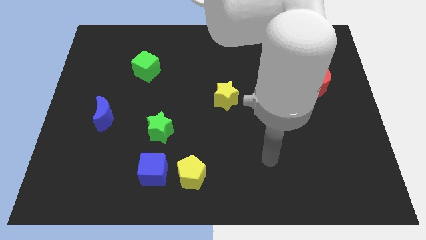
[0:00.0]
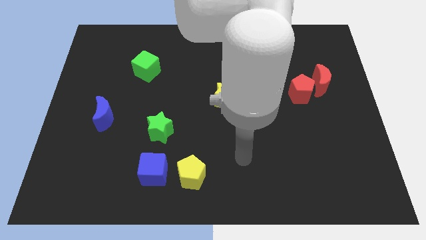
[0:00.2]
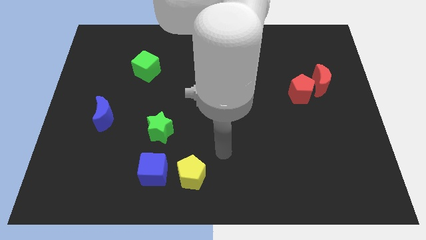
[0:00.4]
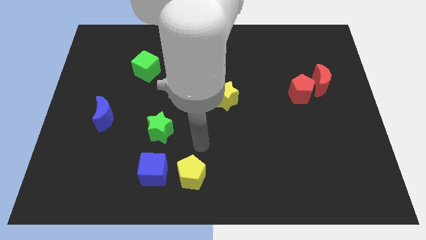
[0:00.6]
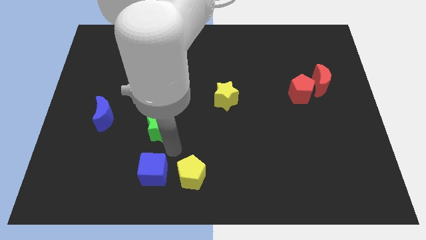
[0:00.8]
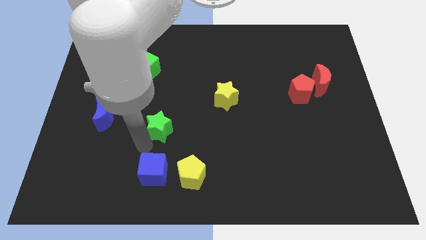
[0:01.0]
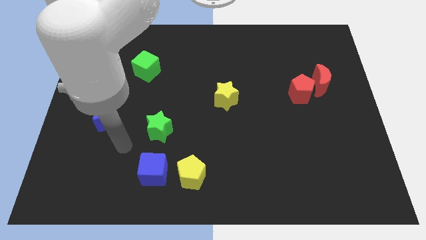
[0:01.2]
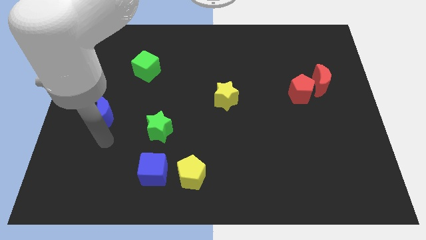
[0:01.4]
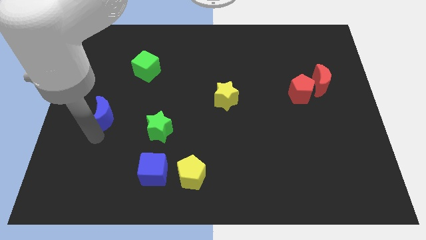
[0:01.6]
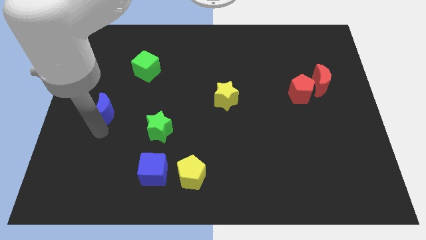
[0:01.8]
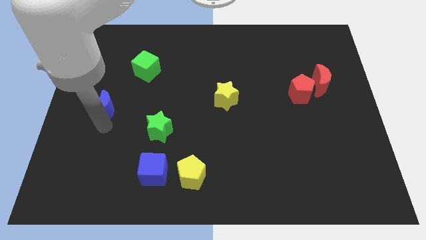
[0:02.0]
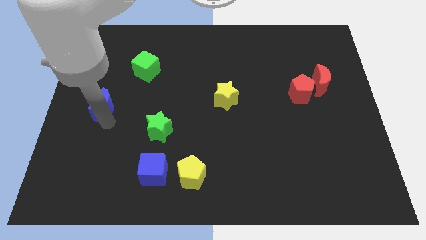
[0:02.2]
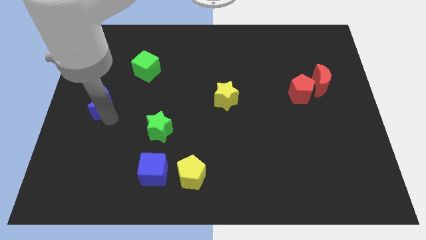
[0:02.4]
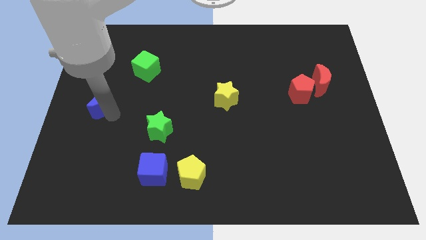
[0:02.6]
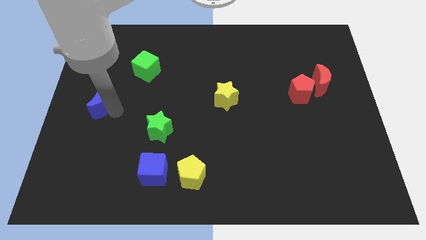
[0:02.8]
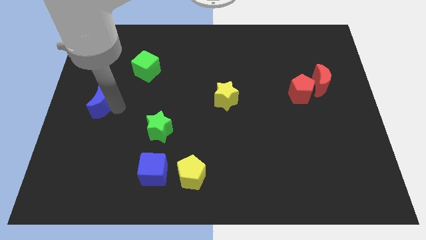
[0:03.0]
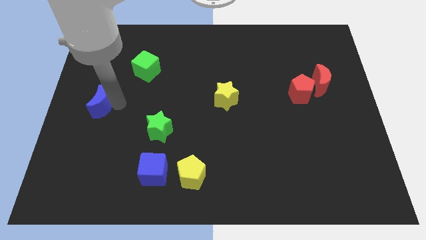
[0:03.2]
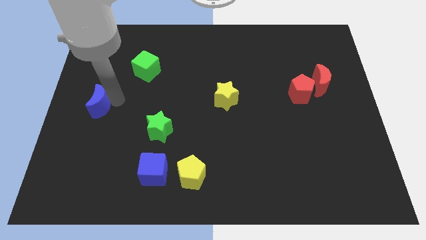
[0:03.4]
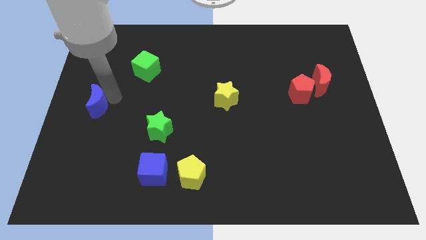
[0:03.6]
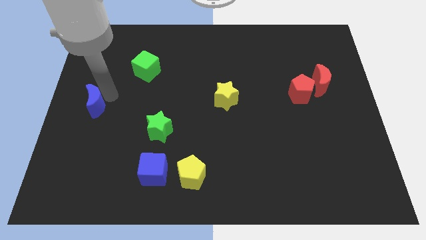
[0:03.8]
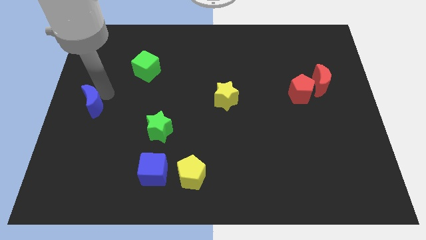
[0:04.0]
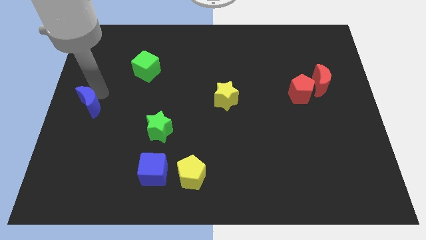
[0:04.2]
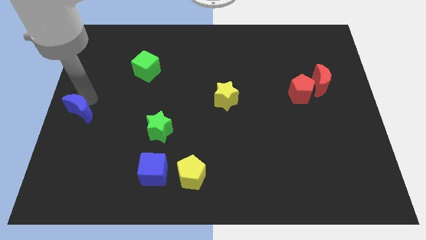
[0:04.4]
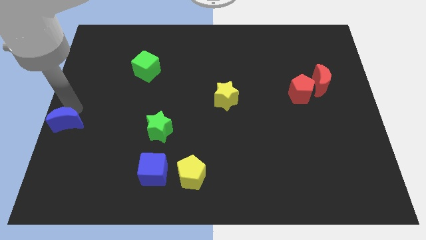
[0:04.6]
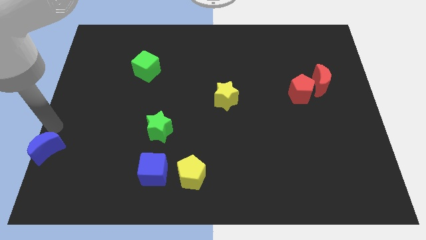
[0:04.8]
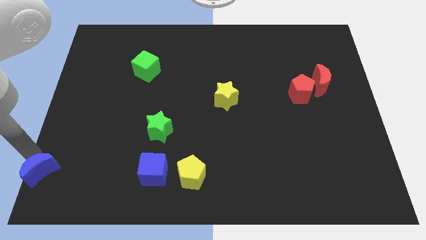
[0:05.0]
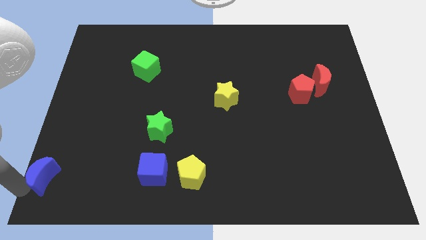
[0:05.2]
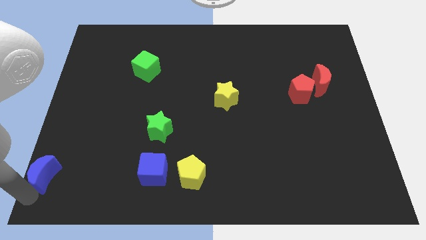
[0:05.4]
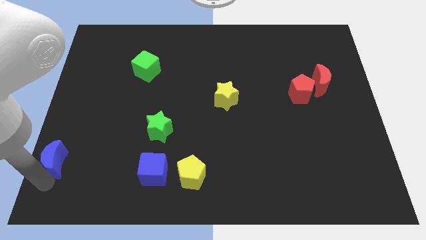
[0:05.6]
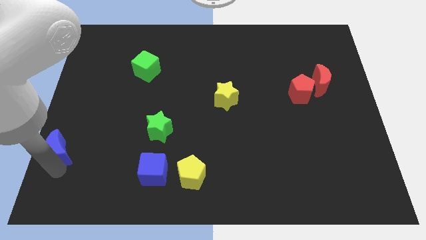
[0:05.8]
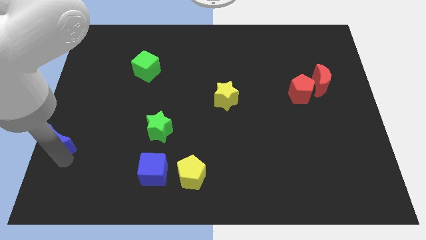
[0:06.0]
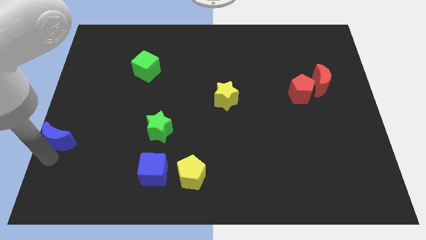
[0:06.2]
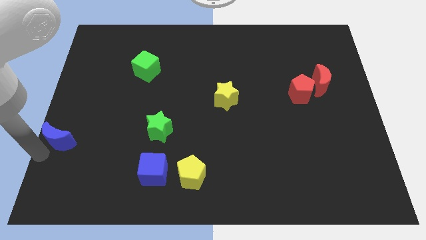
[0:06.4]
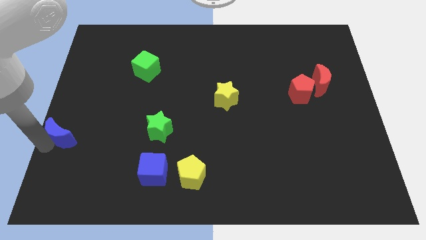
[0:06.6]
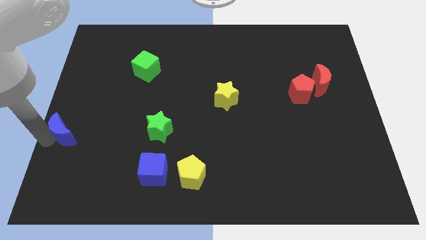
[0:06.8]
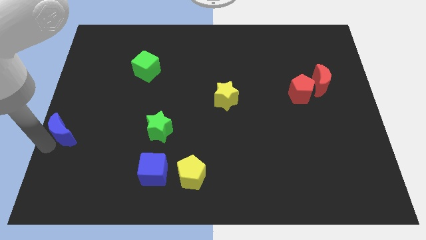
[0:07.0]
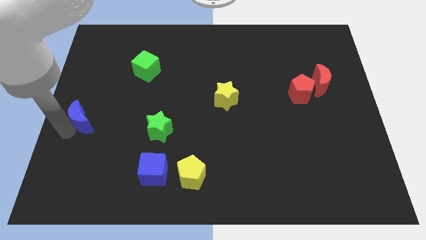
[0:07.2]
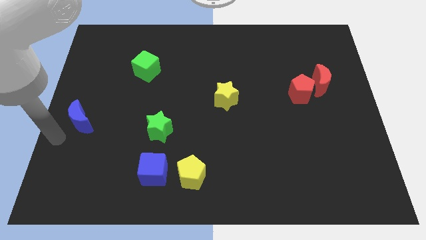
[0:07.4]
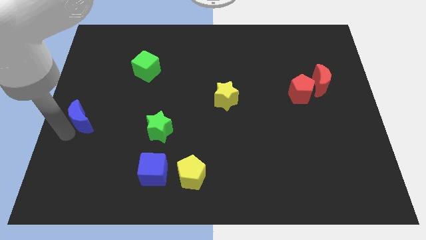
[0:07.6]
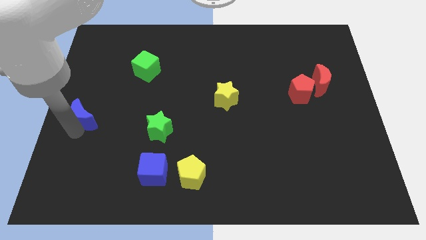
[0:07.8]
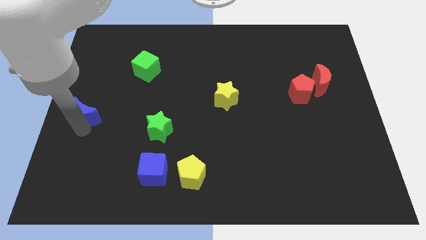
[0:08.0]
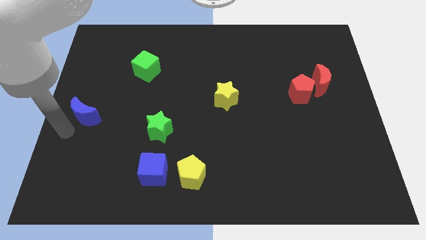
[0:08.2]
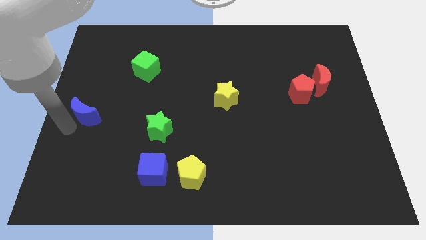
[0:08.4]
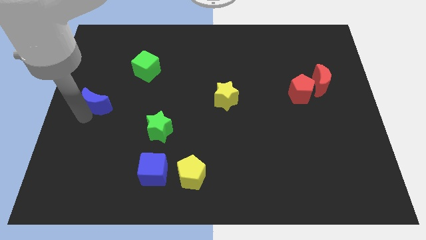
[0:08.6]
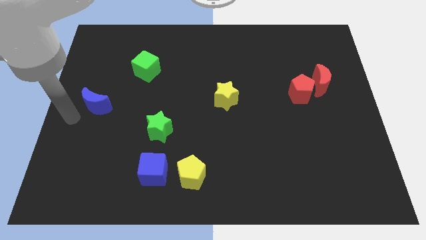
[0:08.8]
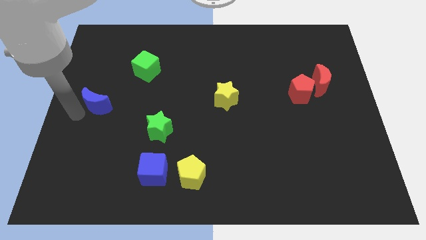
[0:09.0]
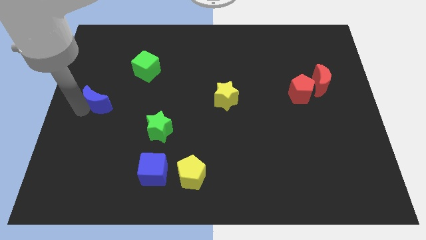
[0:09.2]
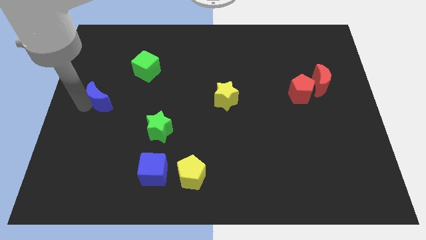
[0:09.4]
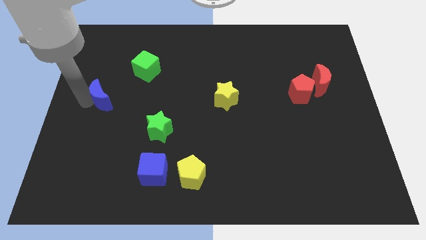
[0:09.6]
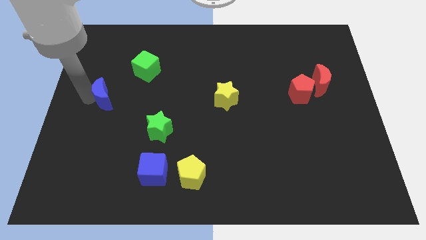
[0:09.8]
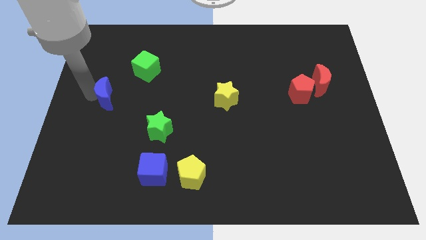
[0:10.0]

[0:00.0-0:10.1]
push the blue moon to the bottom left side of the green cube

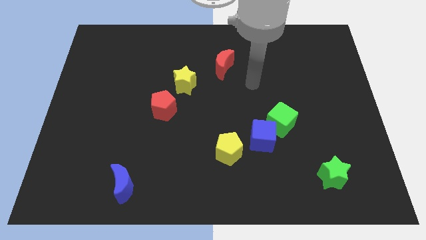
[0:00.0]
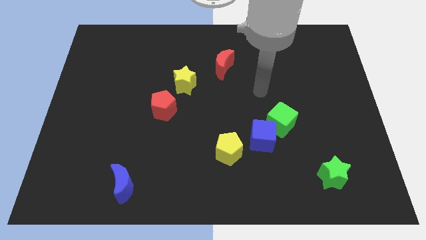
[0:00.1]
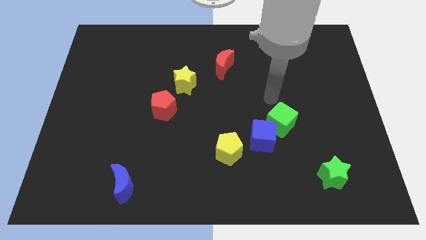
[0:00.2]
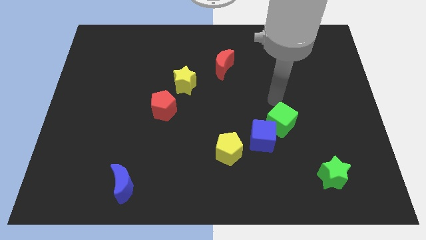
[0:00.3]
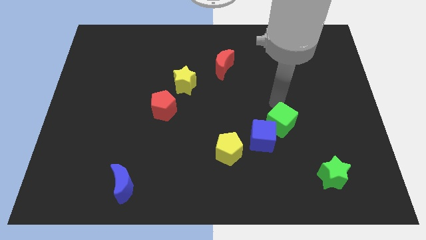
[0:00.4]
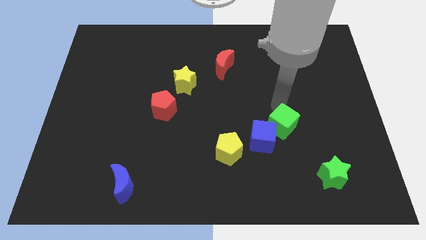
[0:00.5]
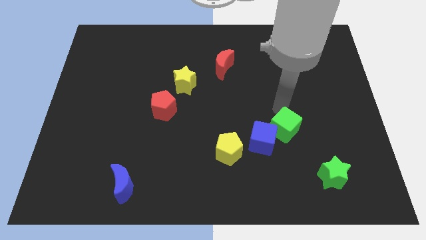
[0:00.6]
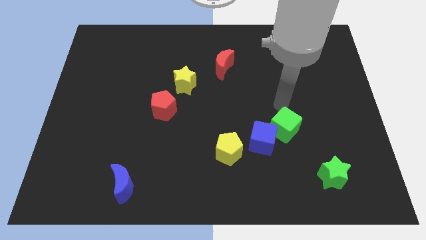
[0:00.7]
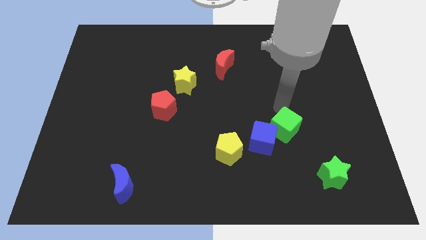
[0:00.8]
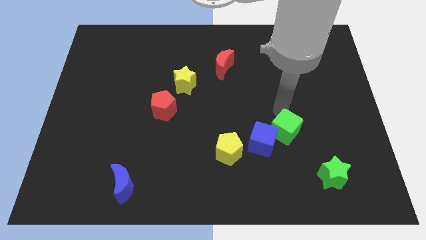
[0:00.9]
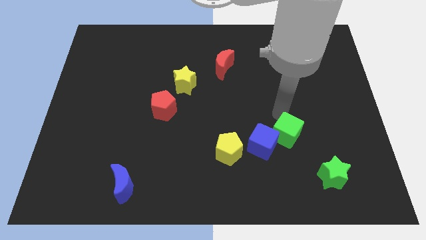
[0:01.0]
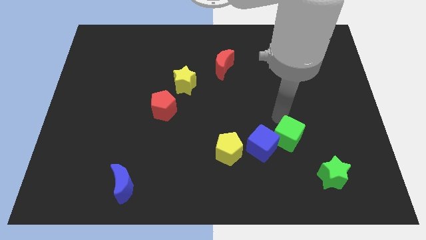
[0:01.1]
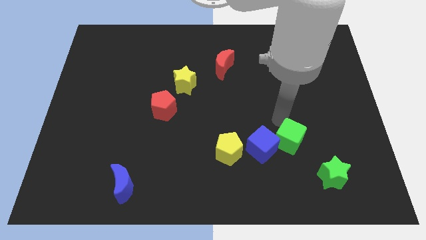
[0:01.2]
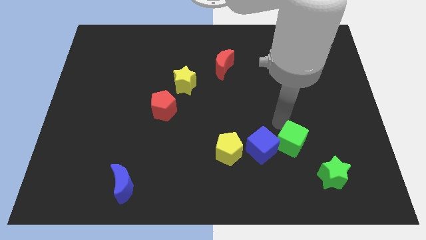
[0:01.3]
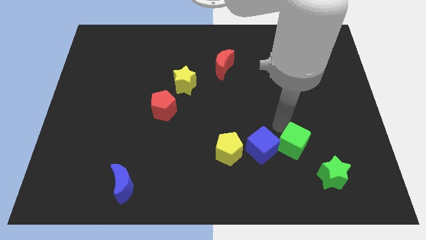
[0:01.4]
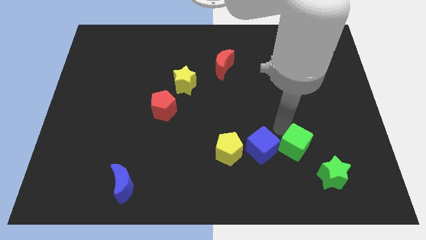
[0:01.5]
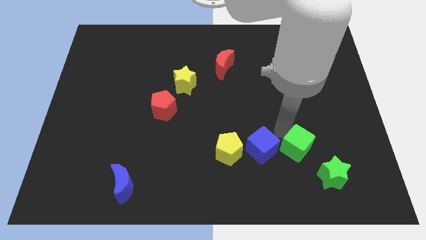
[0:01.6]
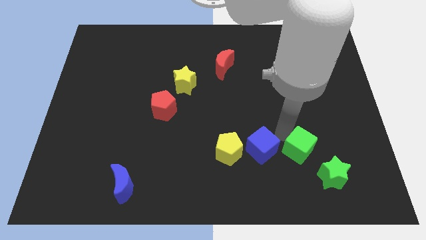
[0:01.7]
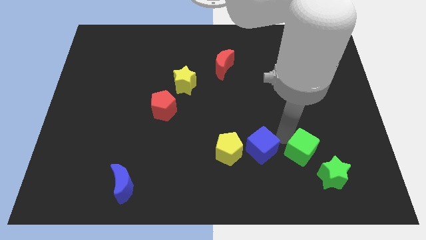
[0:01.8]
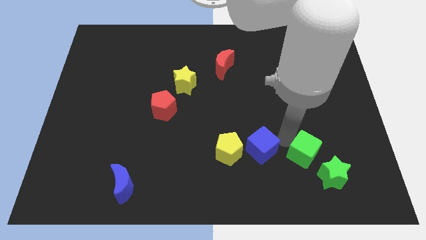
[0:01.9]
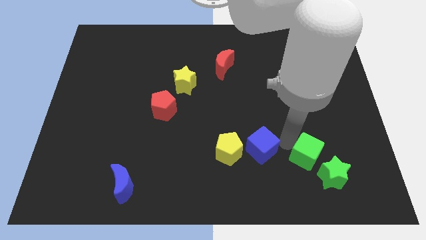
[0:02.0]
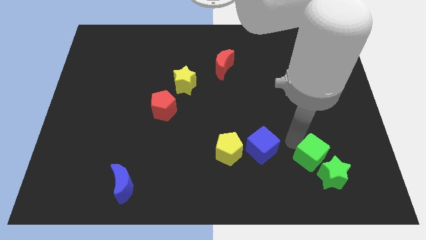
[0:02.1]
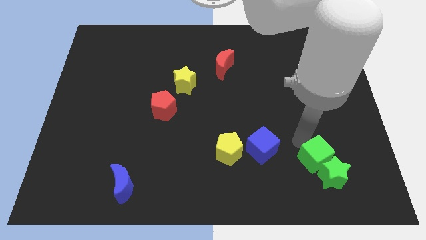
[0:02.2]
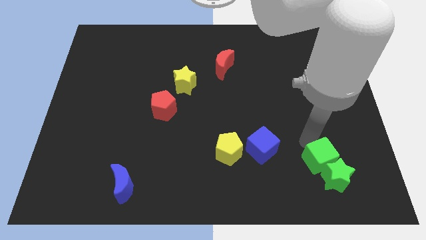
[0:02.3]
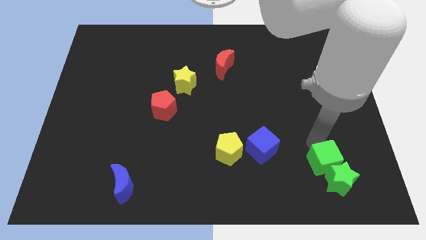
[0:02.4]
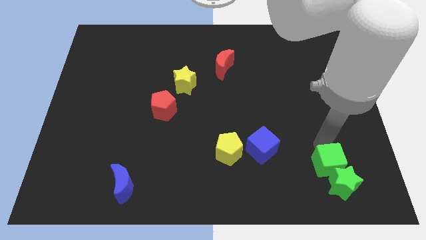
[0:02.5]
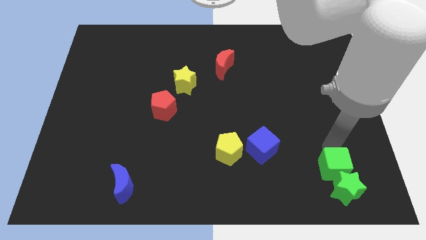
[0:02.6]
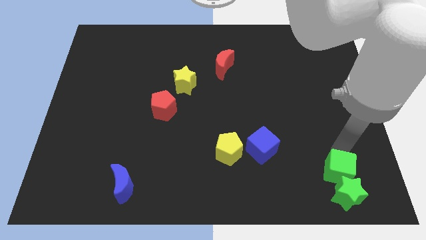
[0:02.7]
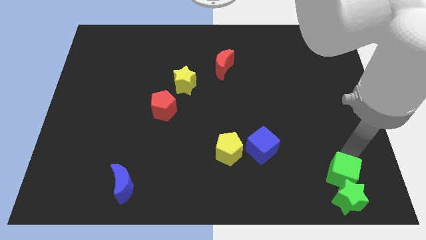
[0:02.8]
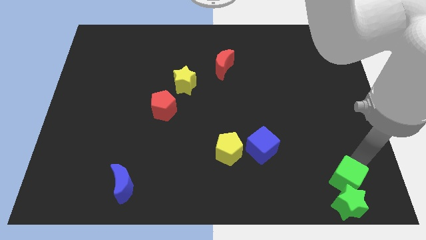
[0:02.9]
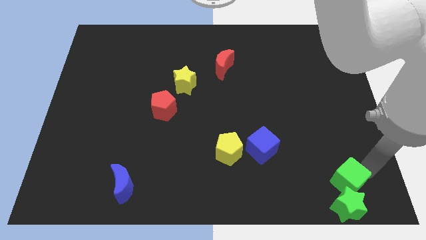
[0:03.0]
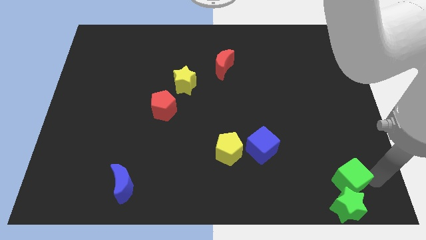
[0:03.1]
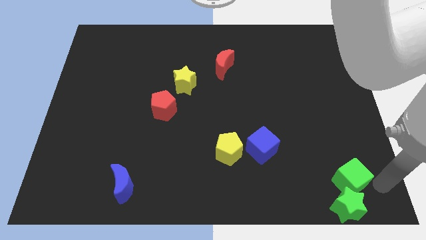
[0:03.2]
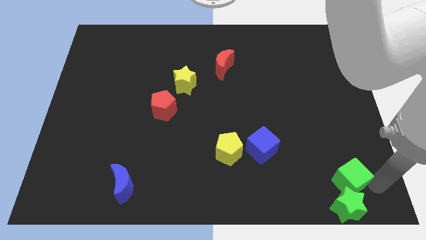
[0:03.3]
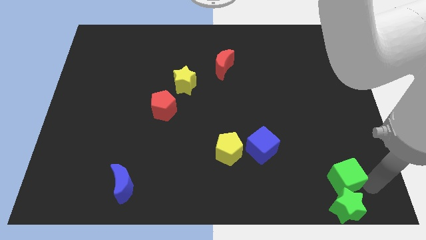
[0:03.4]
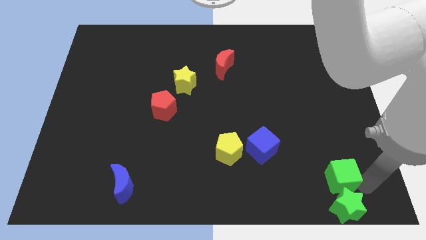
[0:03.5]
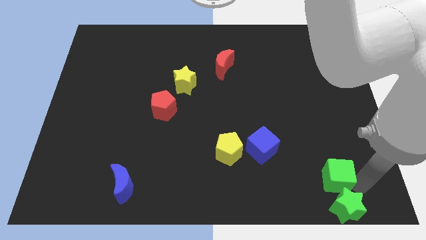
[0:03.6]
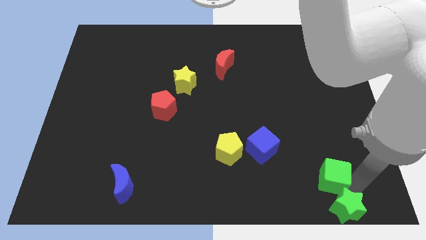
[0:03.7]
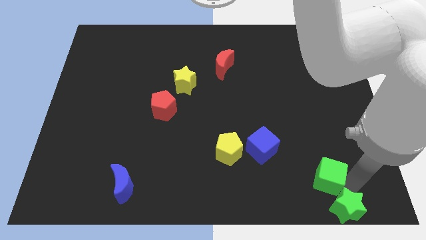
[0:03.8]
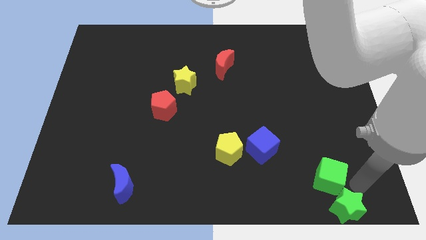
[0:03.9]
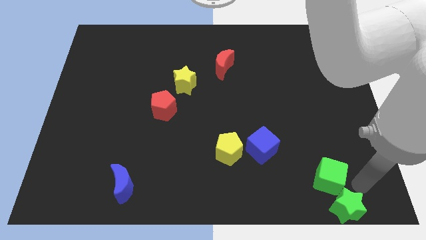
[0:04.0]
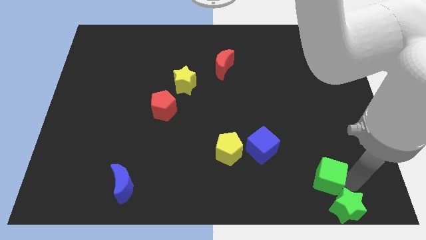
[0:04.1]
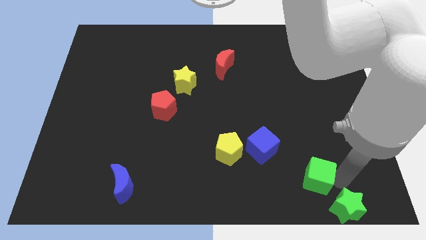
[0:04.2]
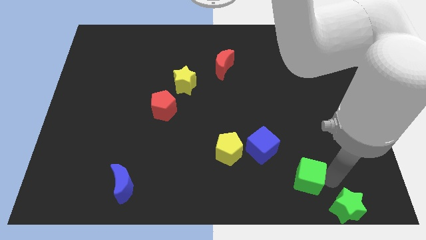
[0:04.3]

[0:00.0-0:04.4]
put the green cube to the bottom right side of the blue cube
